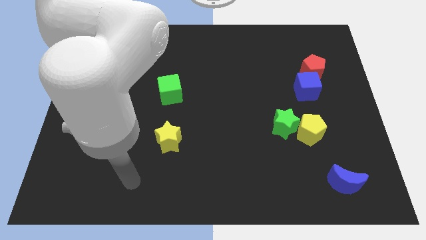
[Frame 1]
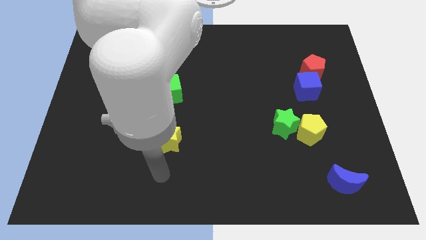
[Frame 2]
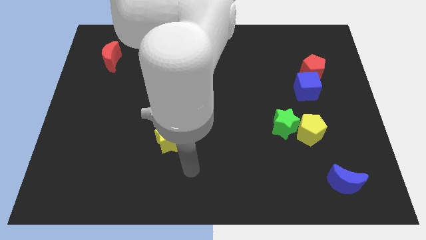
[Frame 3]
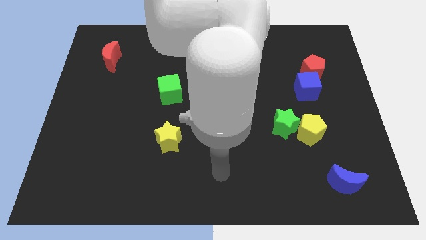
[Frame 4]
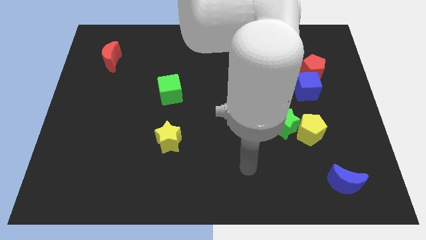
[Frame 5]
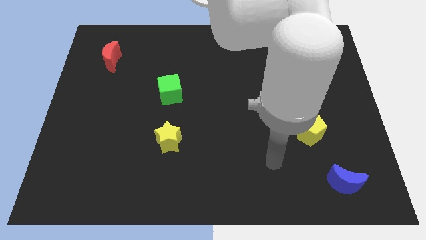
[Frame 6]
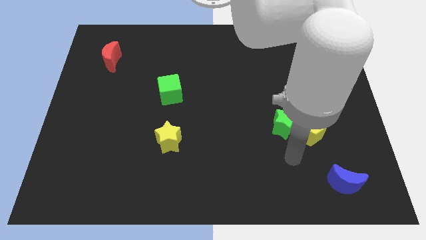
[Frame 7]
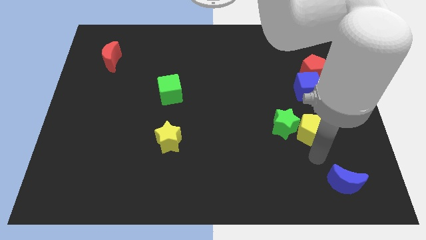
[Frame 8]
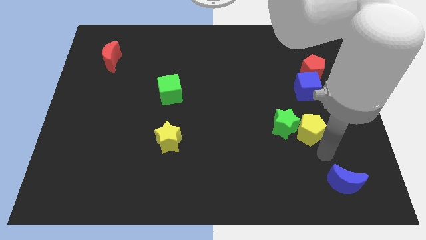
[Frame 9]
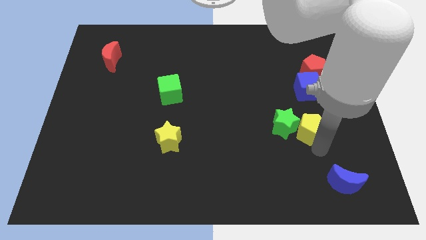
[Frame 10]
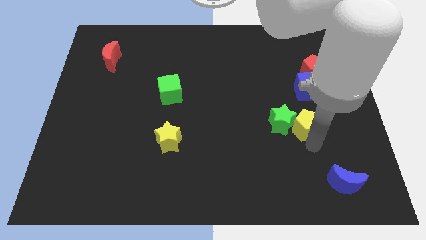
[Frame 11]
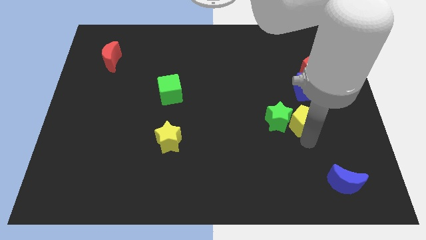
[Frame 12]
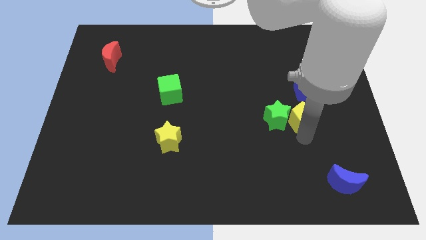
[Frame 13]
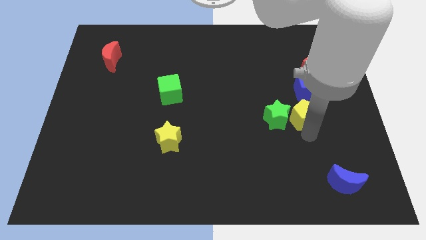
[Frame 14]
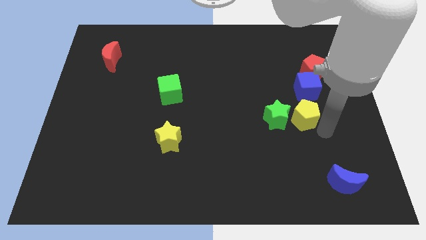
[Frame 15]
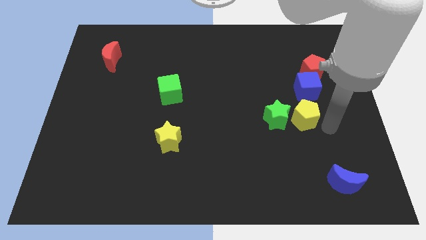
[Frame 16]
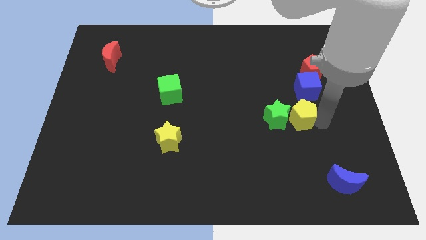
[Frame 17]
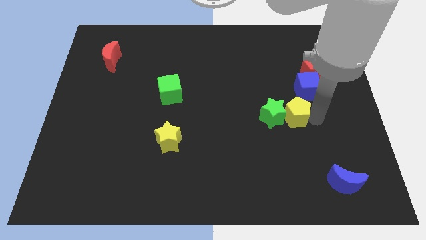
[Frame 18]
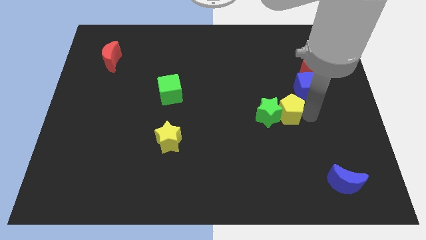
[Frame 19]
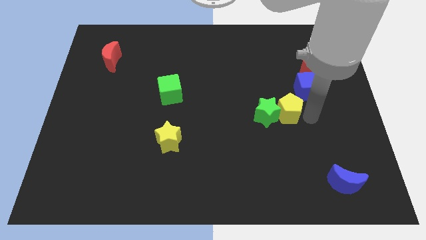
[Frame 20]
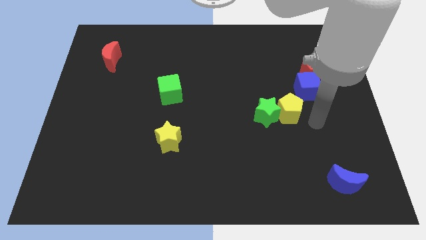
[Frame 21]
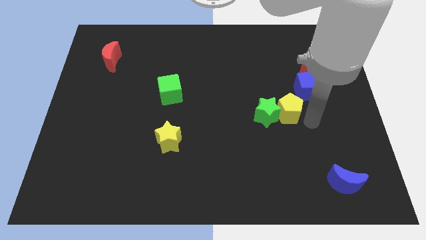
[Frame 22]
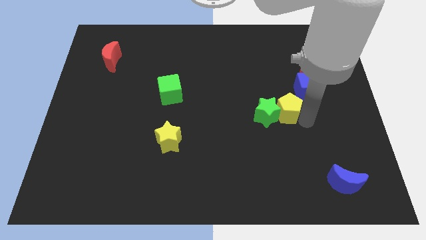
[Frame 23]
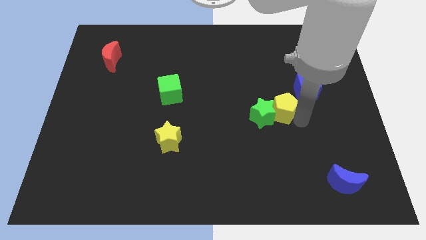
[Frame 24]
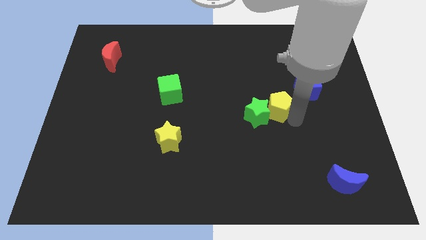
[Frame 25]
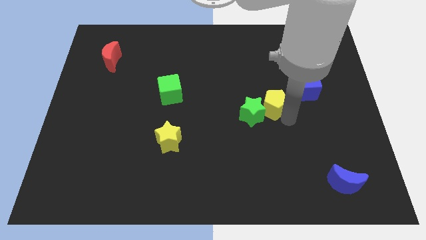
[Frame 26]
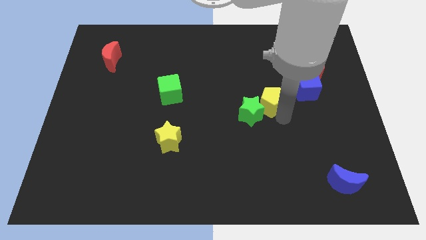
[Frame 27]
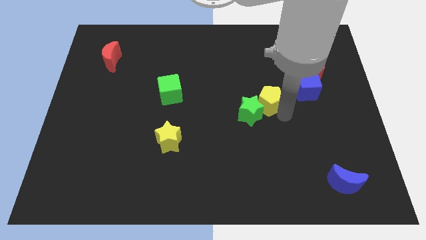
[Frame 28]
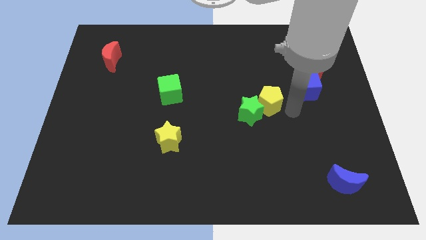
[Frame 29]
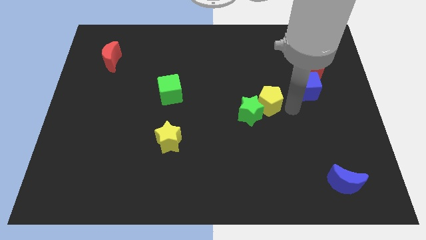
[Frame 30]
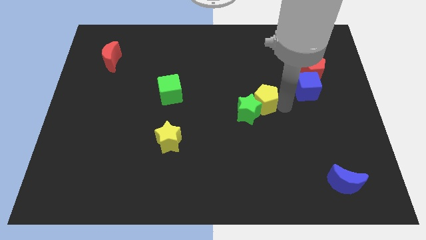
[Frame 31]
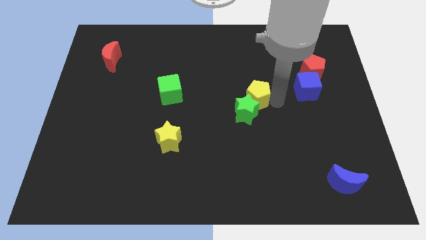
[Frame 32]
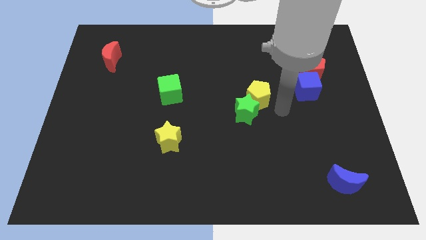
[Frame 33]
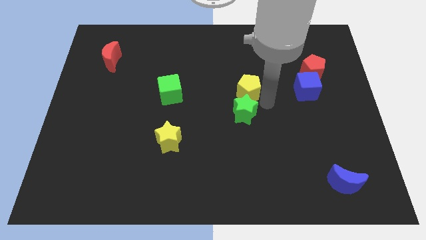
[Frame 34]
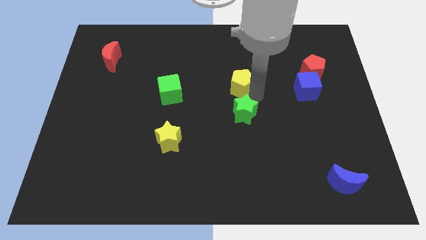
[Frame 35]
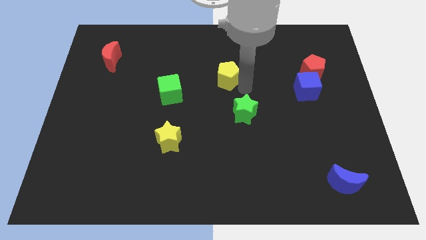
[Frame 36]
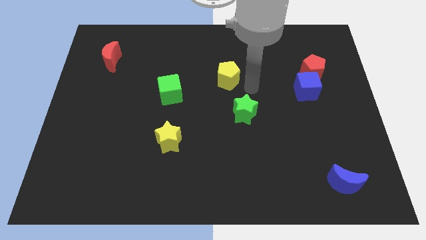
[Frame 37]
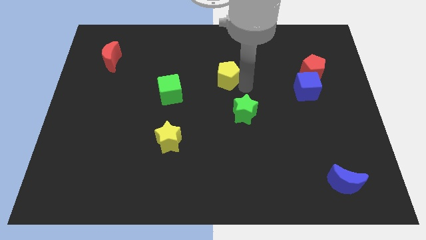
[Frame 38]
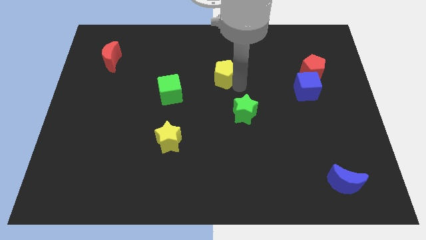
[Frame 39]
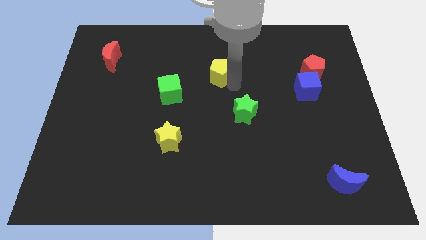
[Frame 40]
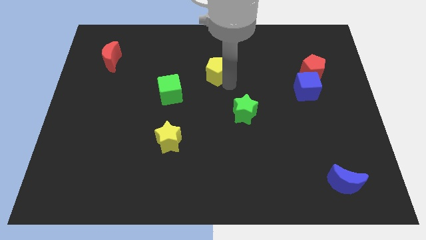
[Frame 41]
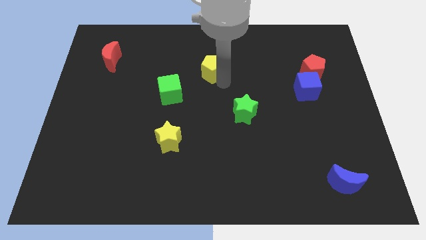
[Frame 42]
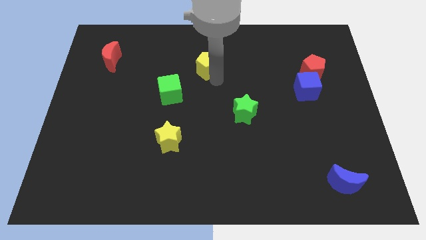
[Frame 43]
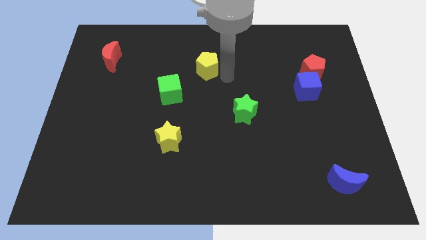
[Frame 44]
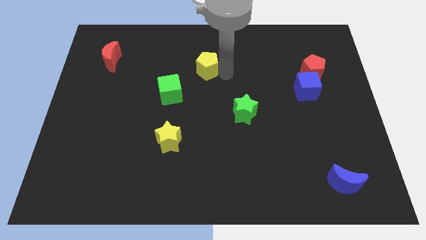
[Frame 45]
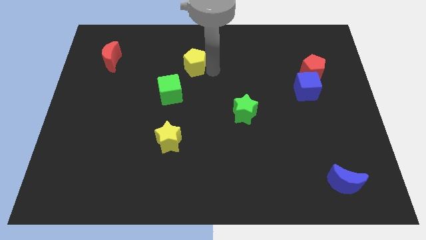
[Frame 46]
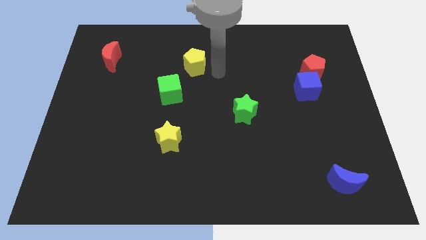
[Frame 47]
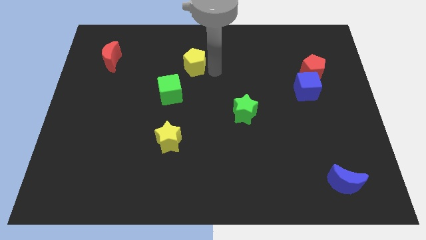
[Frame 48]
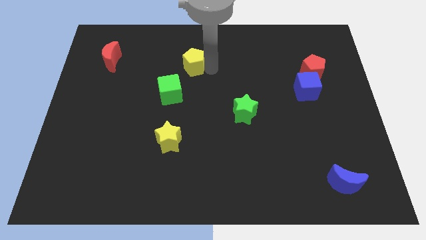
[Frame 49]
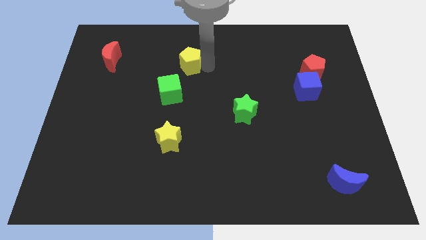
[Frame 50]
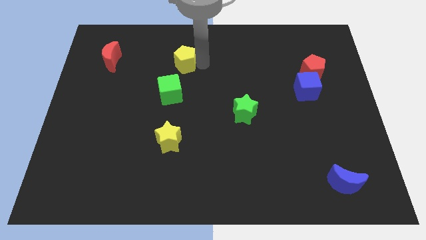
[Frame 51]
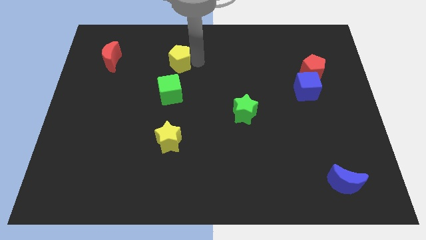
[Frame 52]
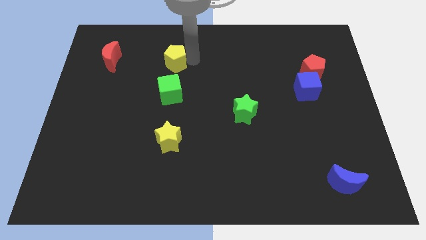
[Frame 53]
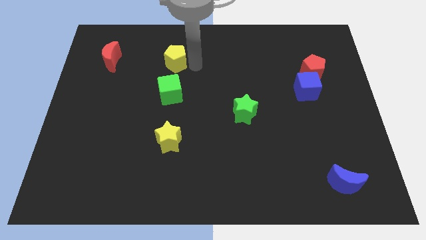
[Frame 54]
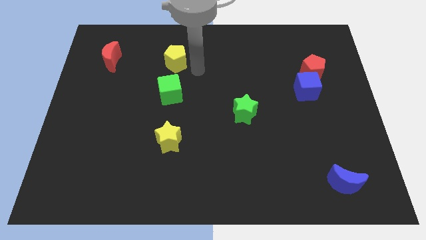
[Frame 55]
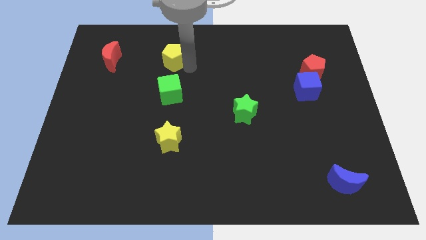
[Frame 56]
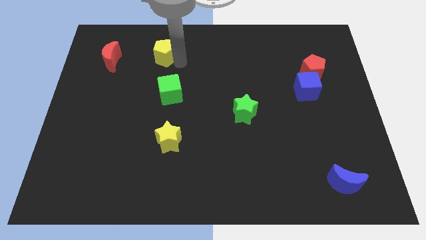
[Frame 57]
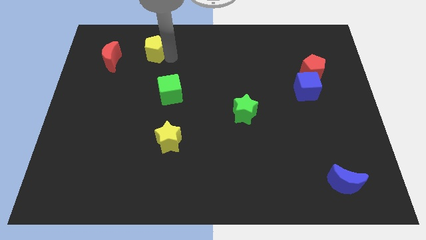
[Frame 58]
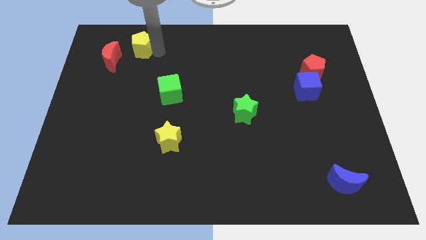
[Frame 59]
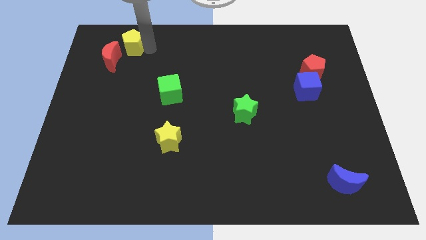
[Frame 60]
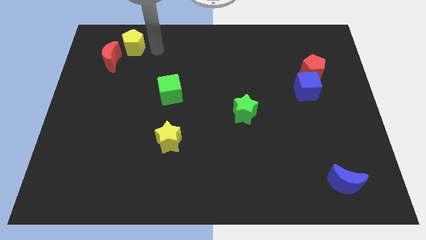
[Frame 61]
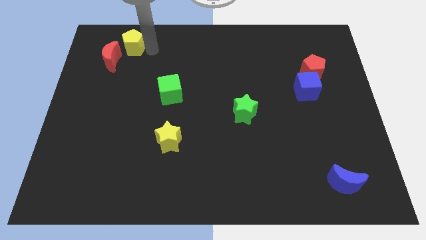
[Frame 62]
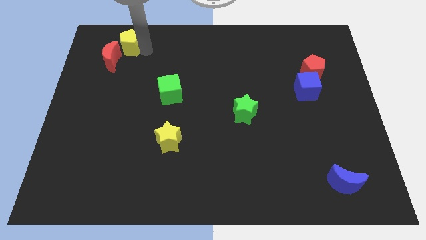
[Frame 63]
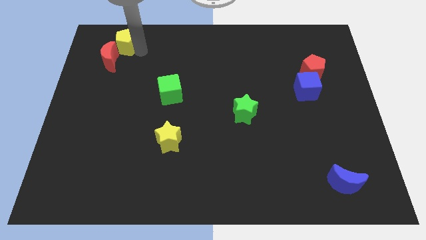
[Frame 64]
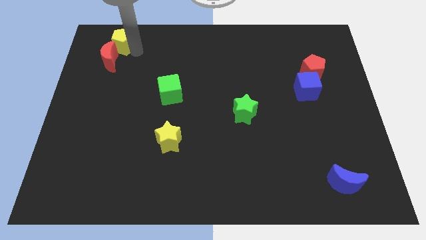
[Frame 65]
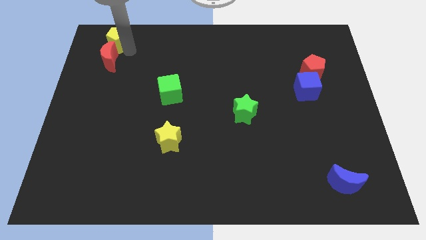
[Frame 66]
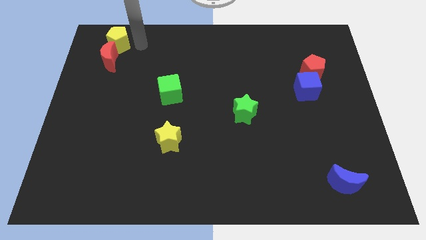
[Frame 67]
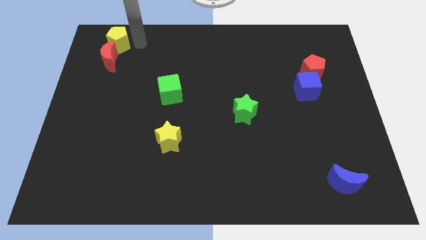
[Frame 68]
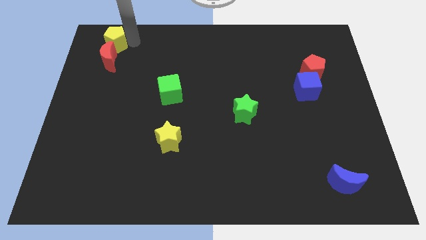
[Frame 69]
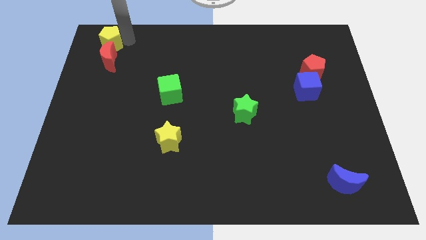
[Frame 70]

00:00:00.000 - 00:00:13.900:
slide the yellow pentagon to the upper left corner
